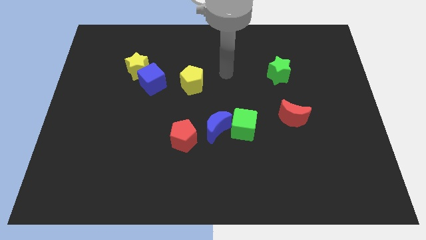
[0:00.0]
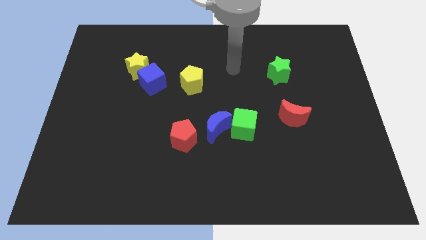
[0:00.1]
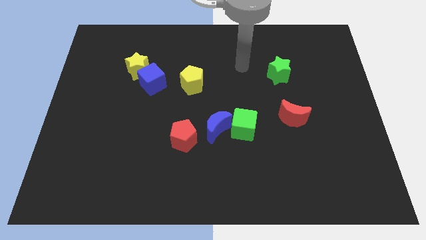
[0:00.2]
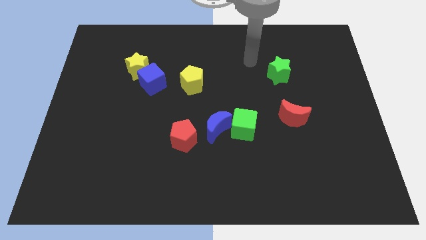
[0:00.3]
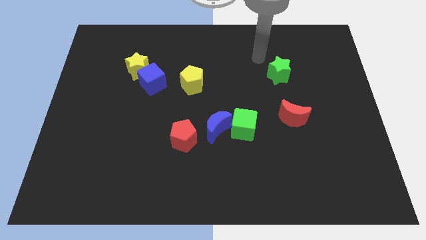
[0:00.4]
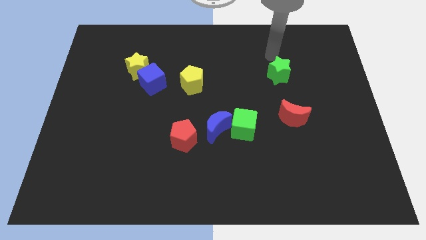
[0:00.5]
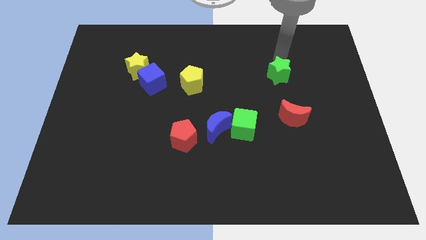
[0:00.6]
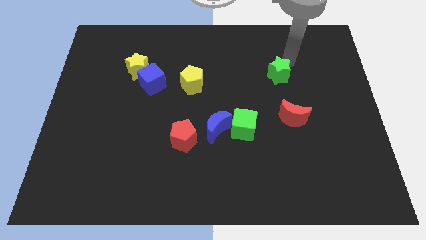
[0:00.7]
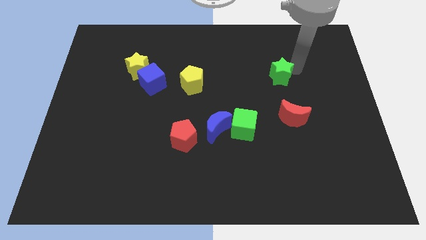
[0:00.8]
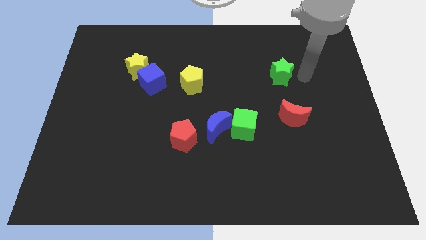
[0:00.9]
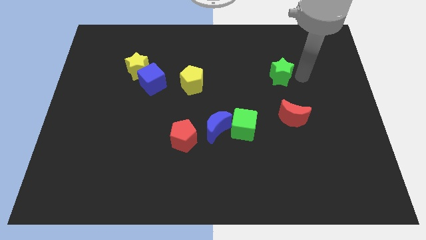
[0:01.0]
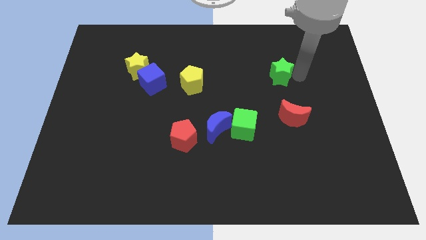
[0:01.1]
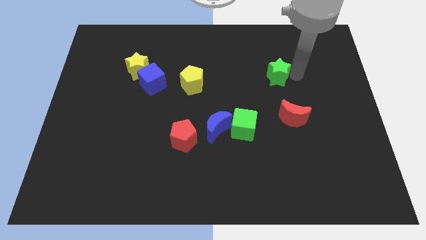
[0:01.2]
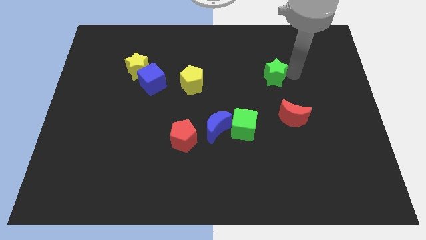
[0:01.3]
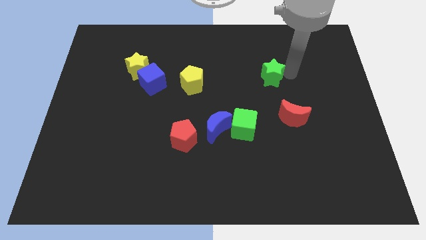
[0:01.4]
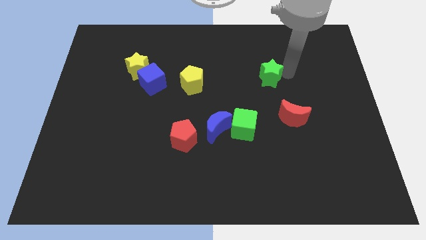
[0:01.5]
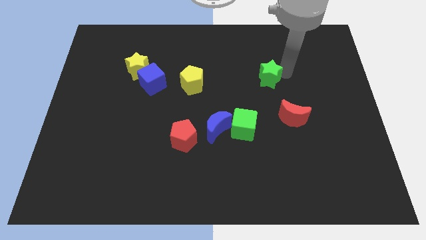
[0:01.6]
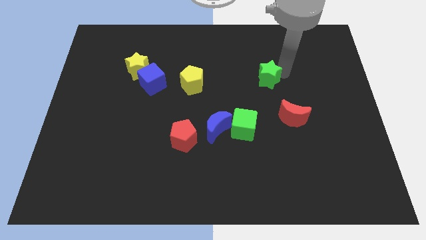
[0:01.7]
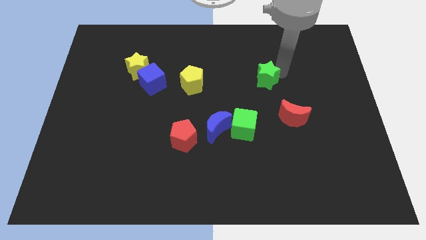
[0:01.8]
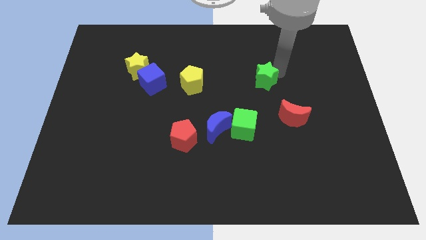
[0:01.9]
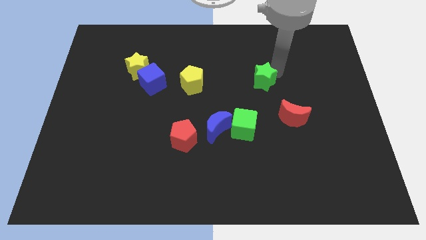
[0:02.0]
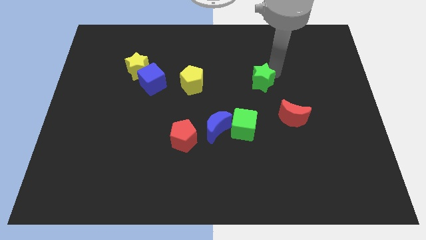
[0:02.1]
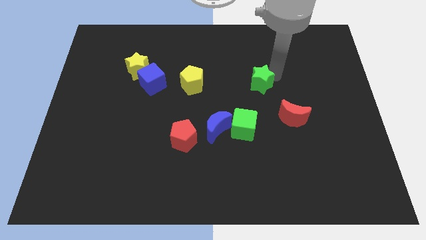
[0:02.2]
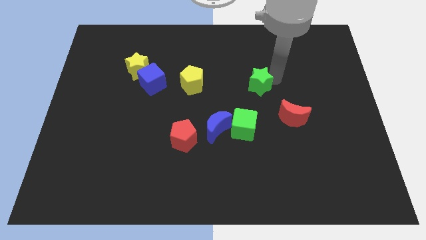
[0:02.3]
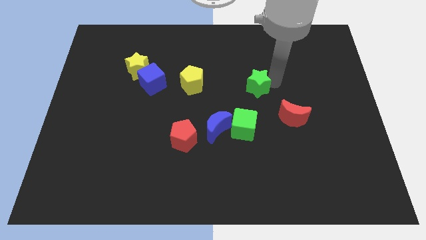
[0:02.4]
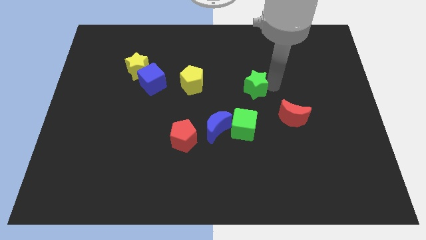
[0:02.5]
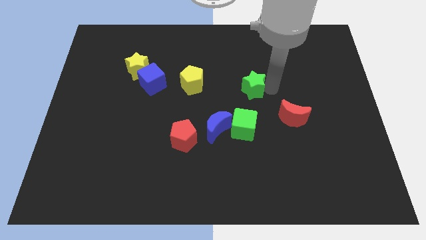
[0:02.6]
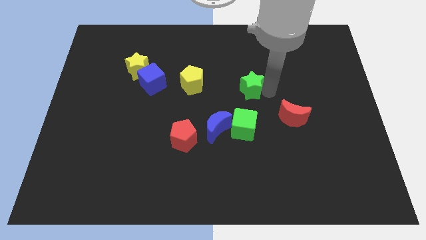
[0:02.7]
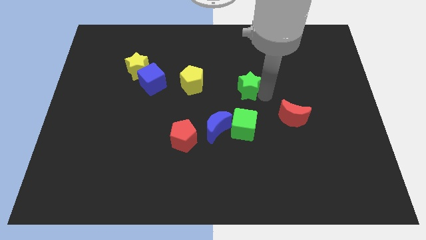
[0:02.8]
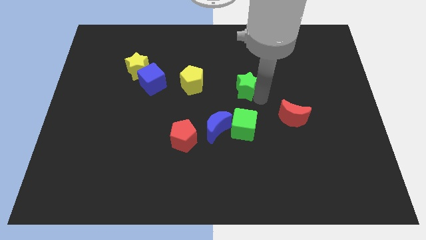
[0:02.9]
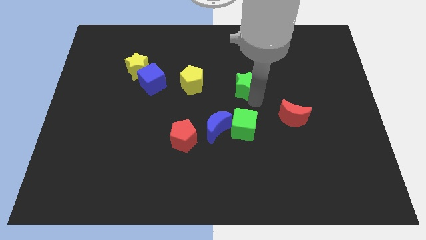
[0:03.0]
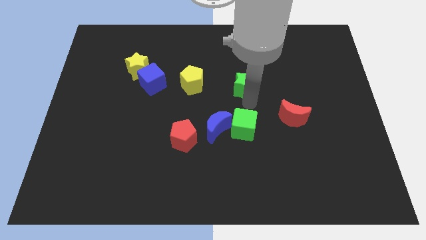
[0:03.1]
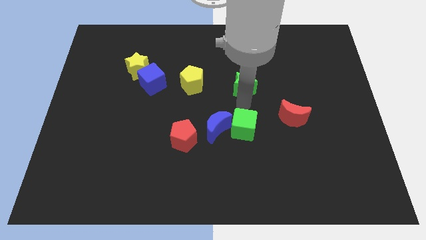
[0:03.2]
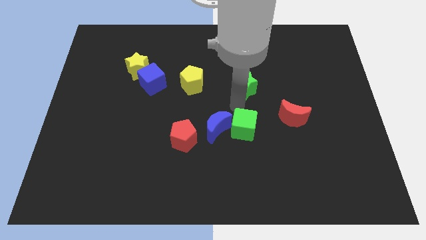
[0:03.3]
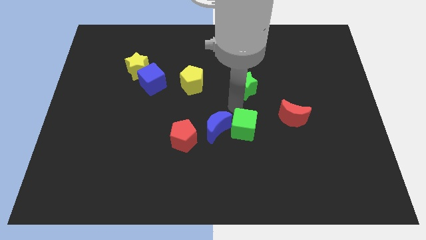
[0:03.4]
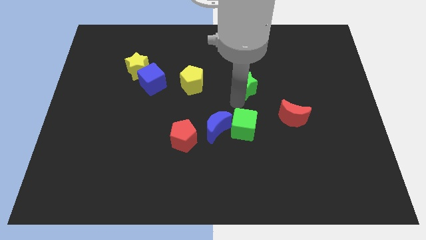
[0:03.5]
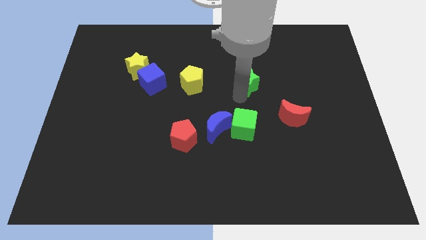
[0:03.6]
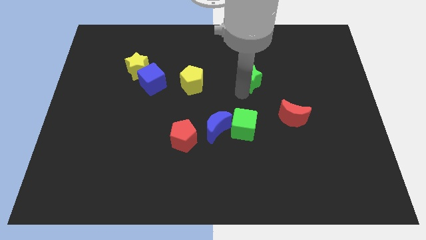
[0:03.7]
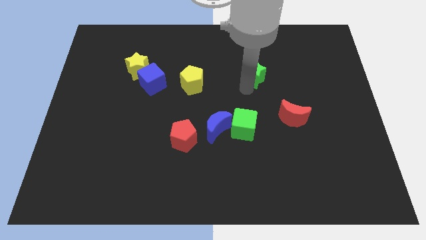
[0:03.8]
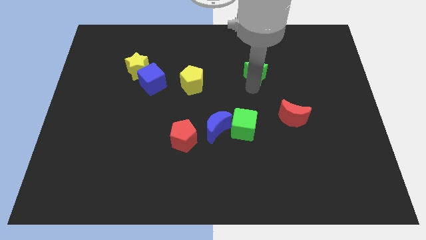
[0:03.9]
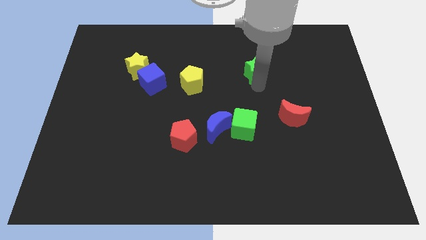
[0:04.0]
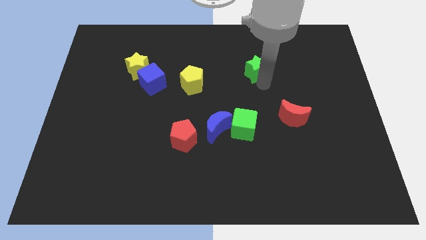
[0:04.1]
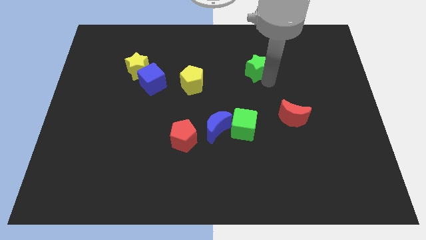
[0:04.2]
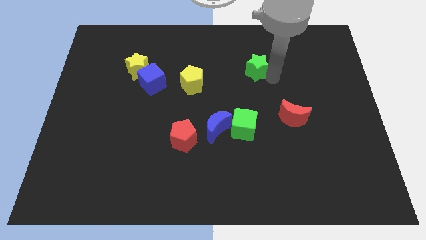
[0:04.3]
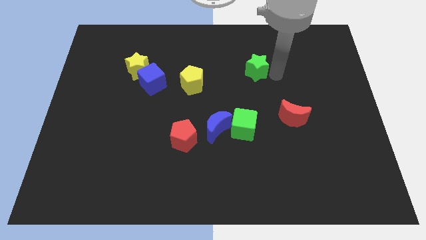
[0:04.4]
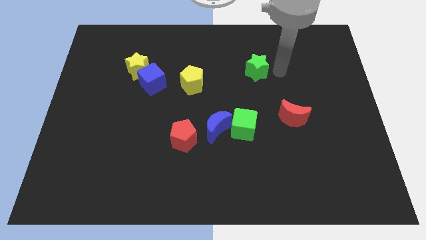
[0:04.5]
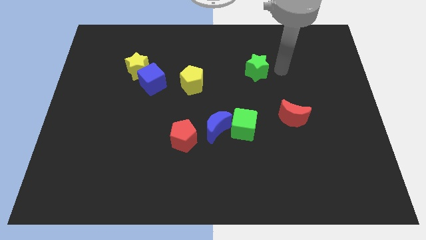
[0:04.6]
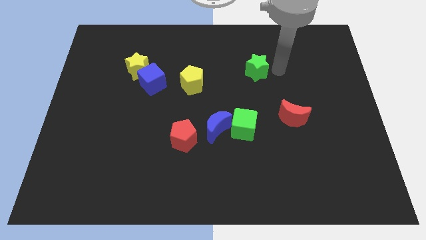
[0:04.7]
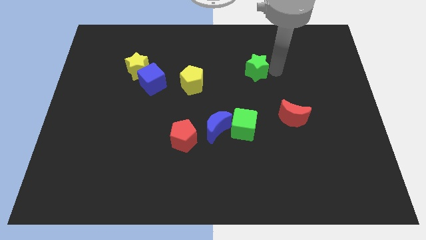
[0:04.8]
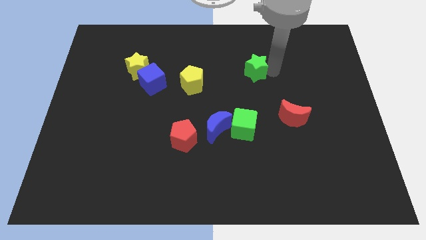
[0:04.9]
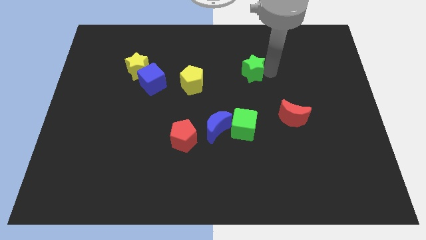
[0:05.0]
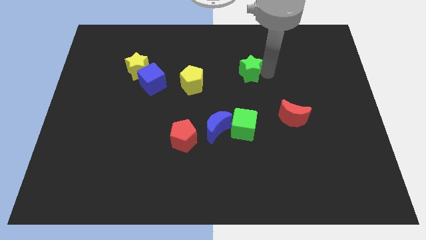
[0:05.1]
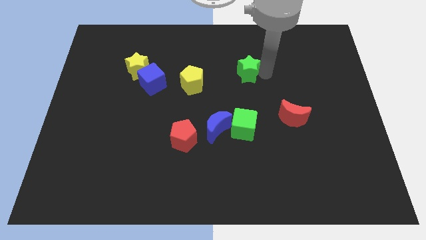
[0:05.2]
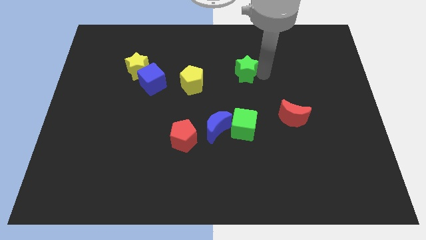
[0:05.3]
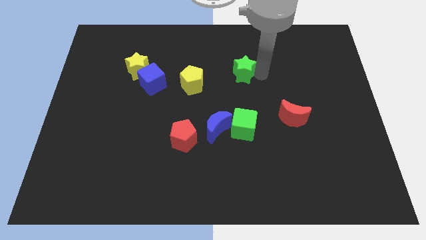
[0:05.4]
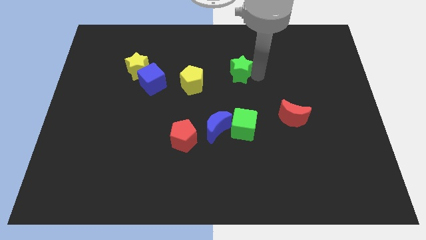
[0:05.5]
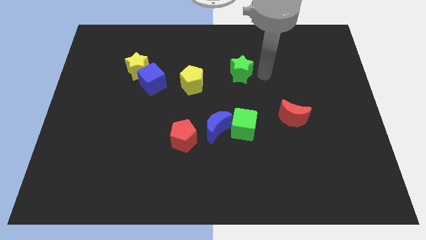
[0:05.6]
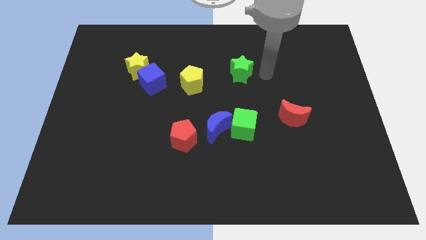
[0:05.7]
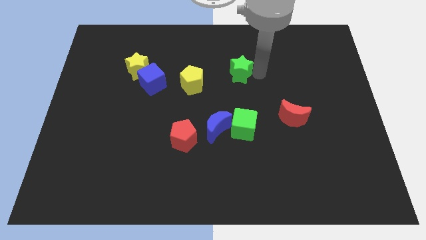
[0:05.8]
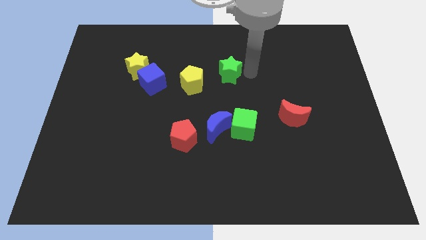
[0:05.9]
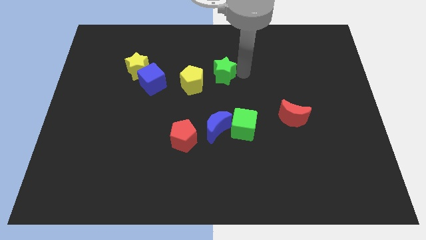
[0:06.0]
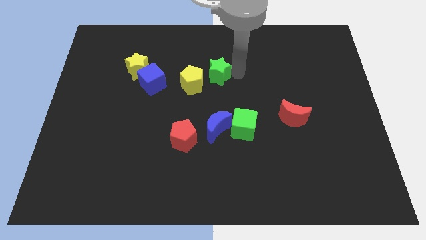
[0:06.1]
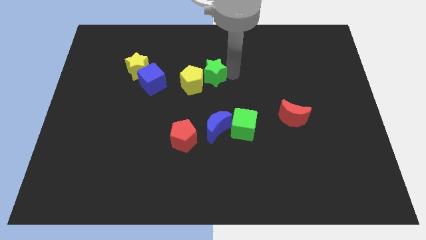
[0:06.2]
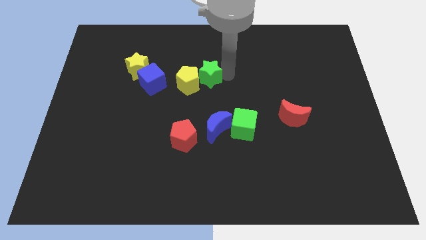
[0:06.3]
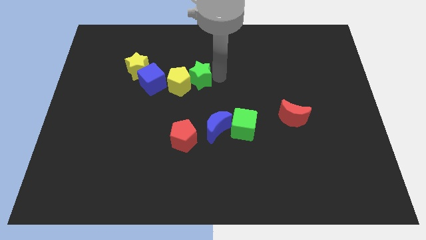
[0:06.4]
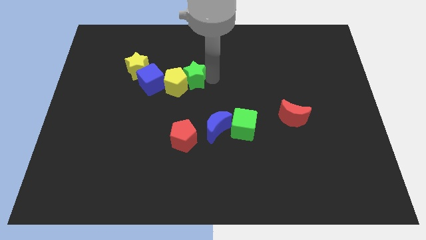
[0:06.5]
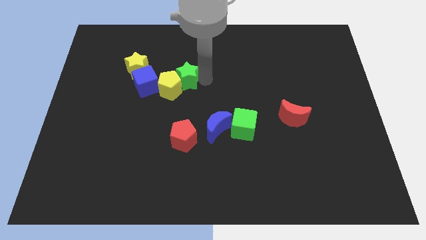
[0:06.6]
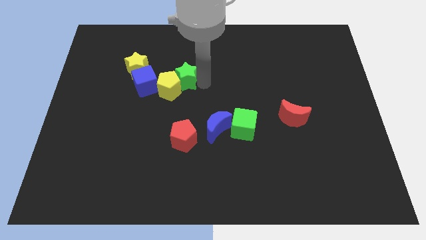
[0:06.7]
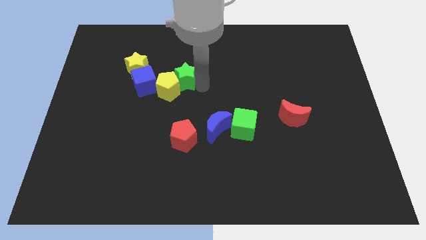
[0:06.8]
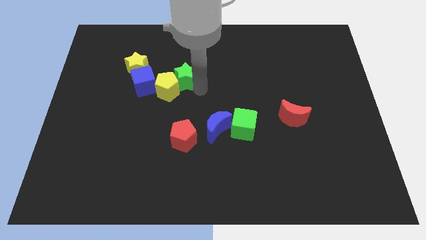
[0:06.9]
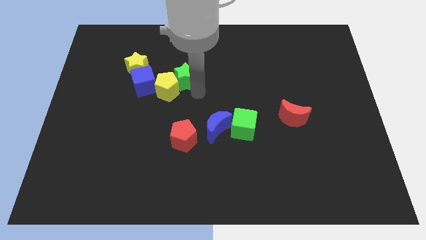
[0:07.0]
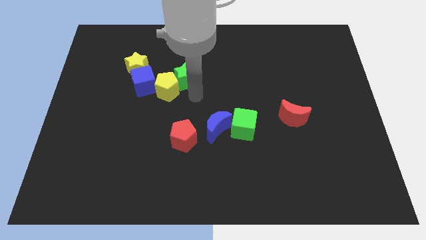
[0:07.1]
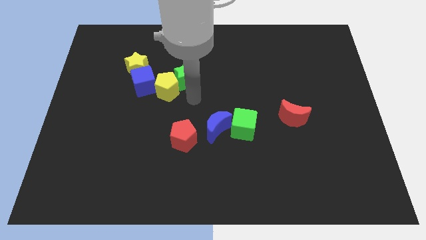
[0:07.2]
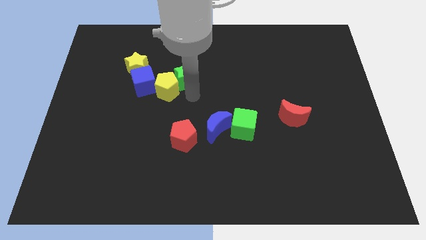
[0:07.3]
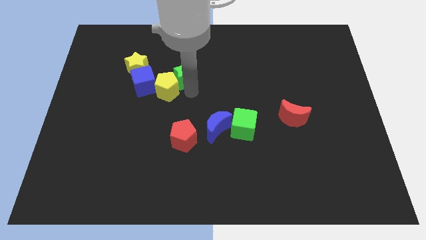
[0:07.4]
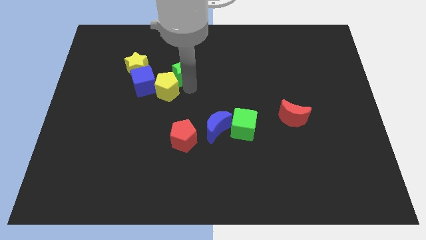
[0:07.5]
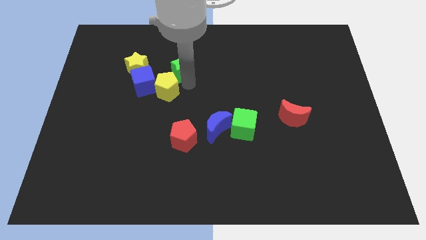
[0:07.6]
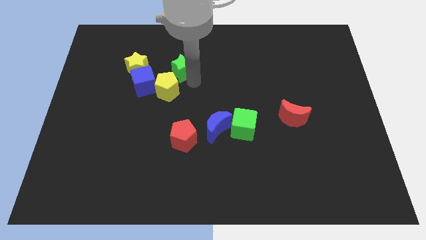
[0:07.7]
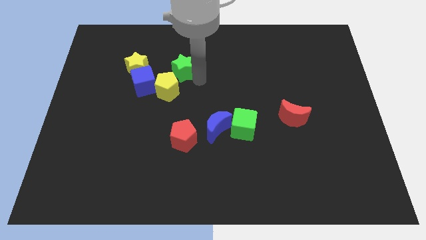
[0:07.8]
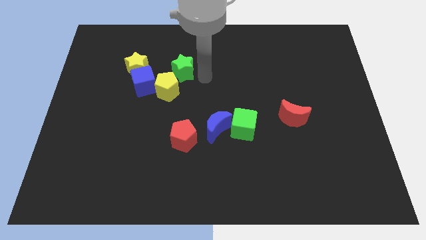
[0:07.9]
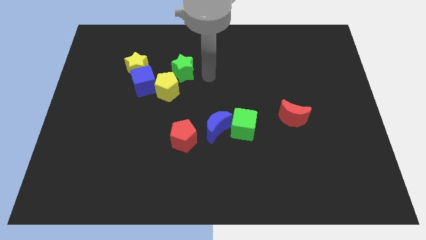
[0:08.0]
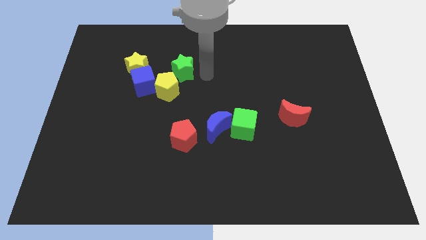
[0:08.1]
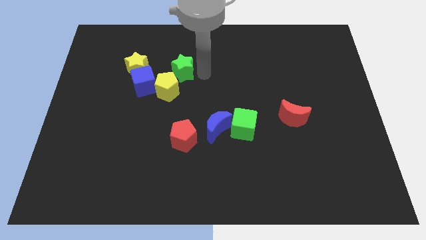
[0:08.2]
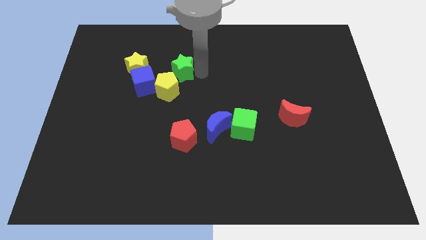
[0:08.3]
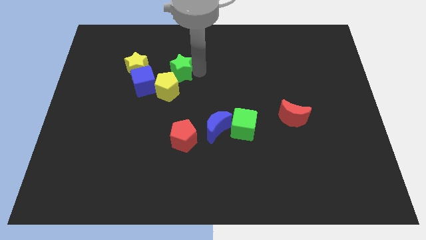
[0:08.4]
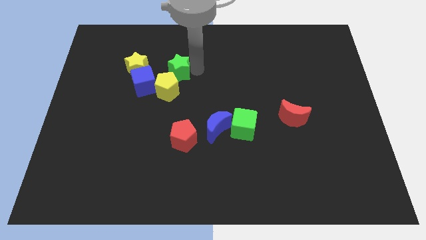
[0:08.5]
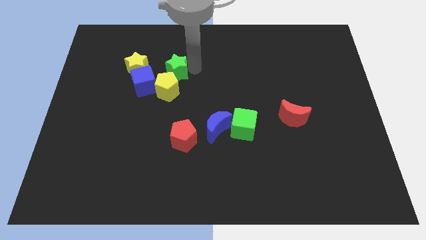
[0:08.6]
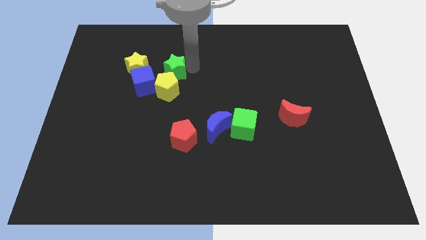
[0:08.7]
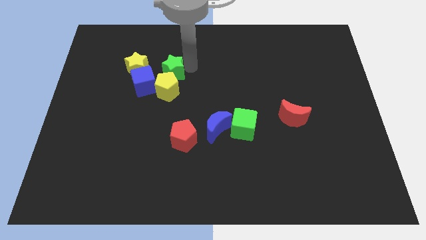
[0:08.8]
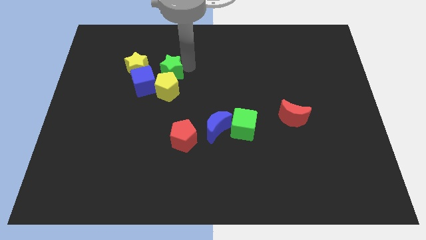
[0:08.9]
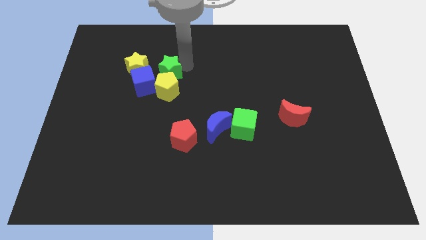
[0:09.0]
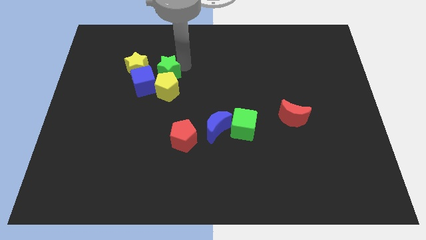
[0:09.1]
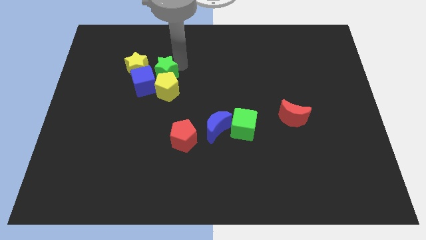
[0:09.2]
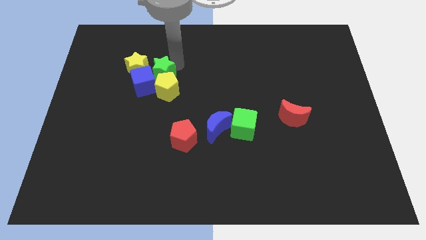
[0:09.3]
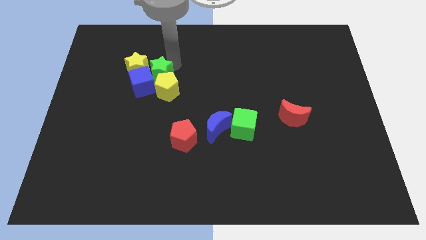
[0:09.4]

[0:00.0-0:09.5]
put the green star to the yellow star
